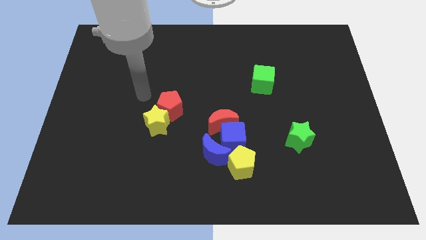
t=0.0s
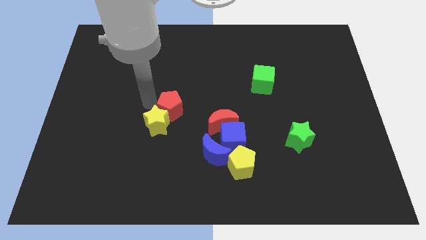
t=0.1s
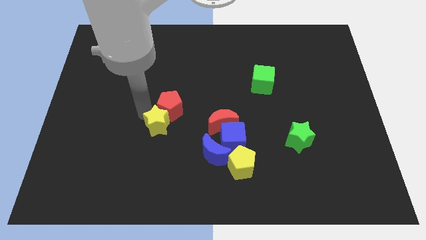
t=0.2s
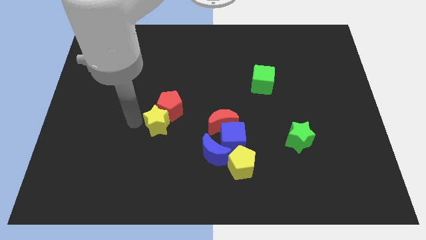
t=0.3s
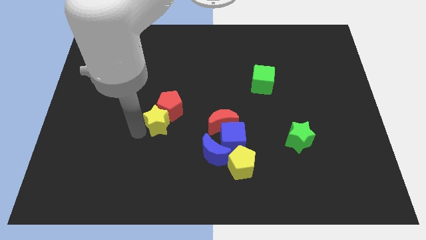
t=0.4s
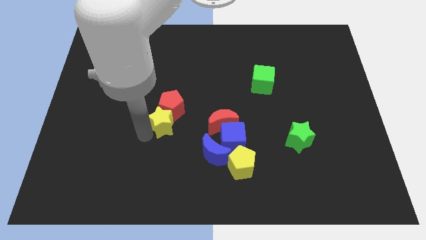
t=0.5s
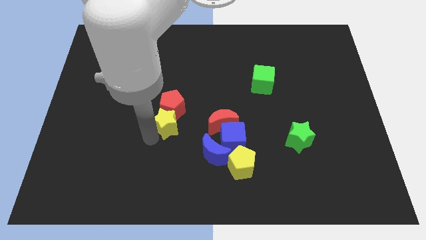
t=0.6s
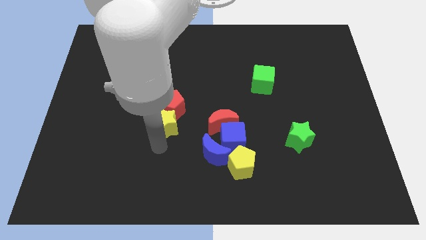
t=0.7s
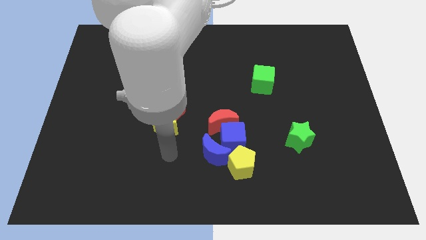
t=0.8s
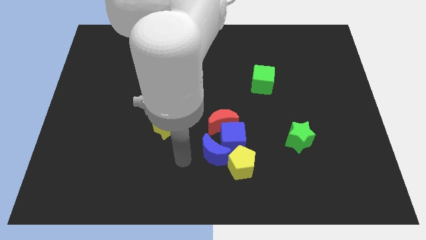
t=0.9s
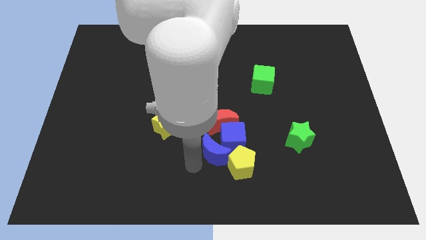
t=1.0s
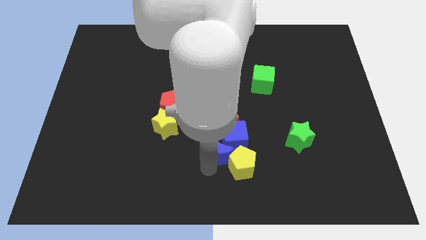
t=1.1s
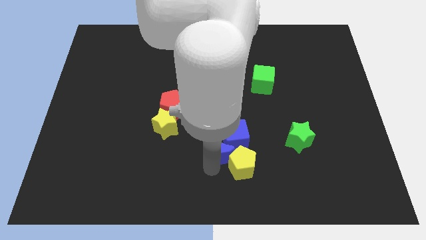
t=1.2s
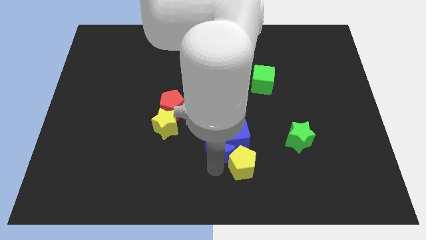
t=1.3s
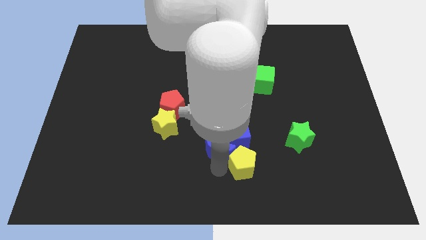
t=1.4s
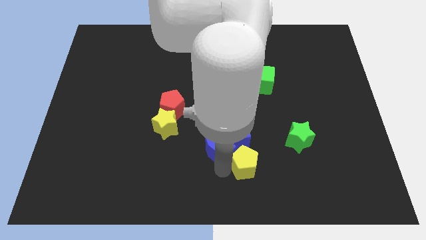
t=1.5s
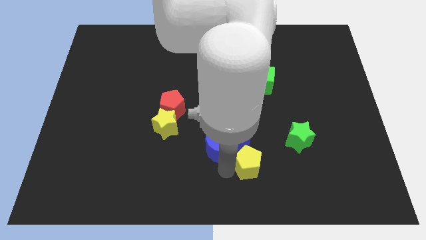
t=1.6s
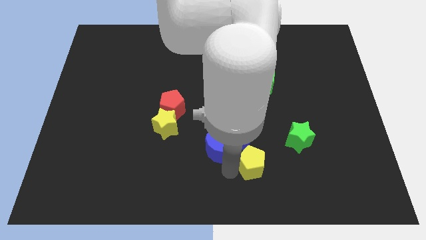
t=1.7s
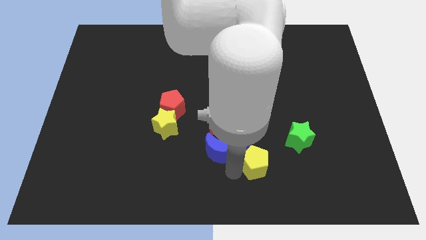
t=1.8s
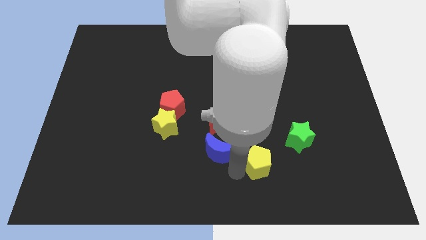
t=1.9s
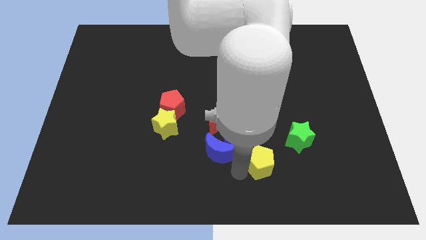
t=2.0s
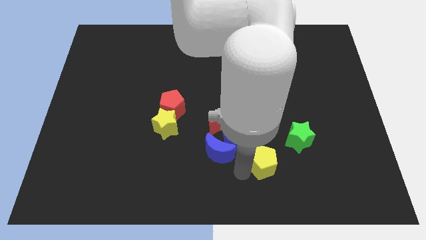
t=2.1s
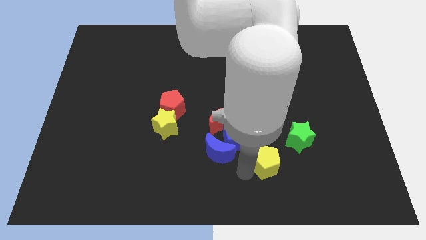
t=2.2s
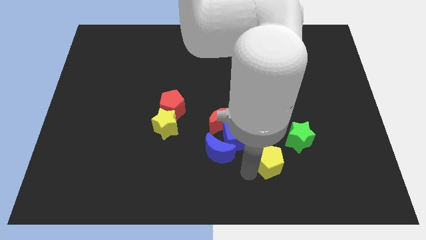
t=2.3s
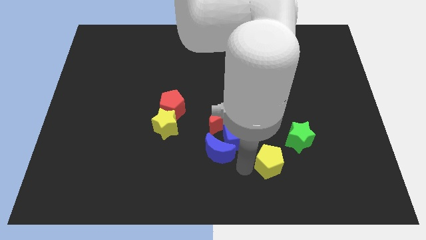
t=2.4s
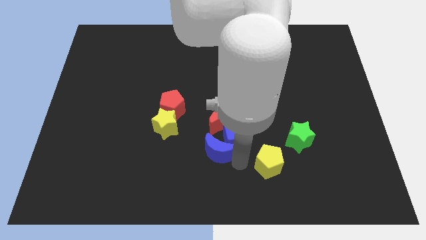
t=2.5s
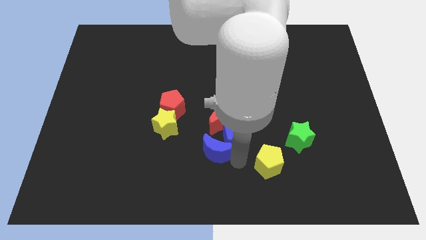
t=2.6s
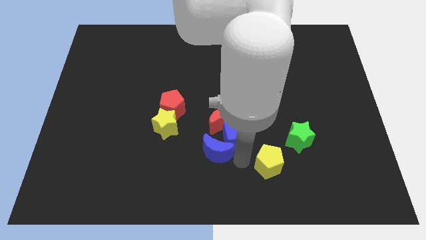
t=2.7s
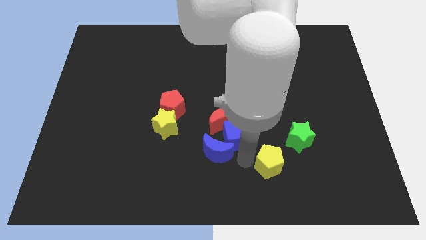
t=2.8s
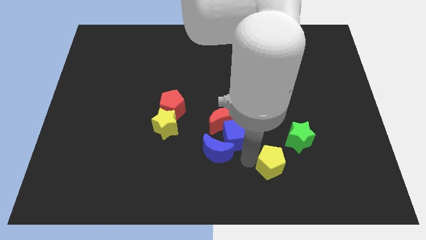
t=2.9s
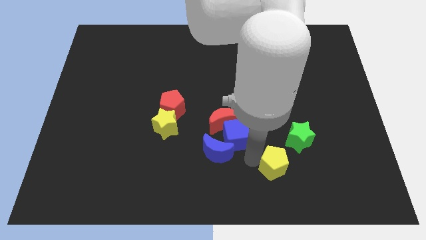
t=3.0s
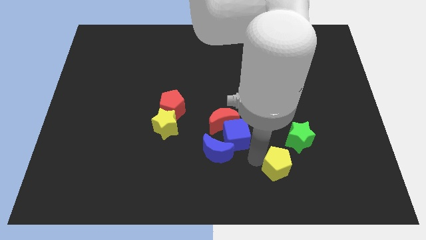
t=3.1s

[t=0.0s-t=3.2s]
move the yellow pentagon to the right somewhat

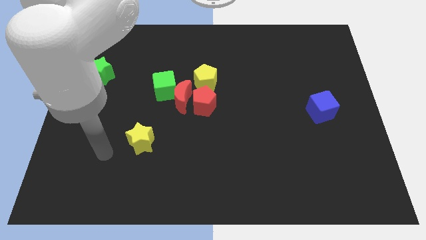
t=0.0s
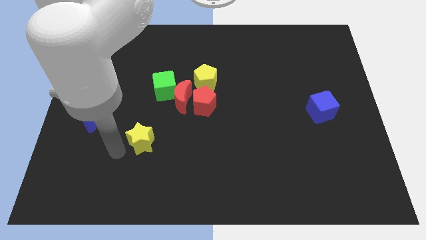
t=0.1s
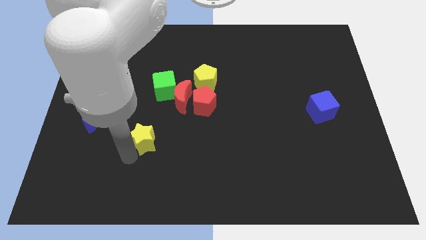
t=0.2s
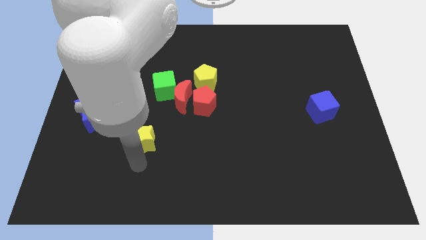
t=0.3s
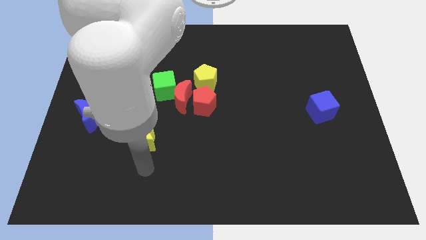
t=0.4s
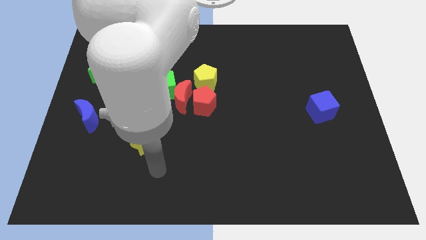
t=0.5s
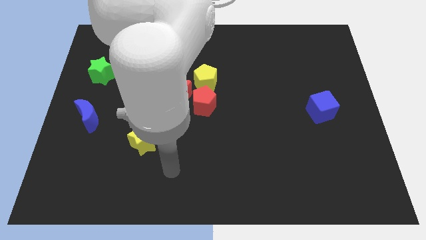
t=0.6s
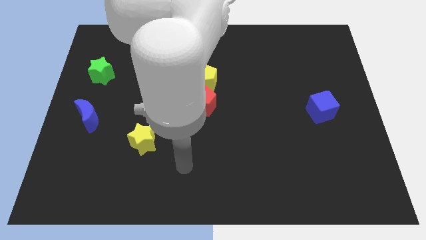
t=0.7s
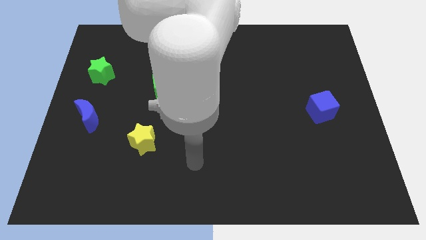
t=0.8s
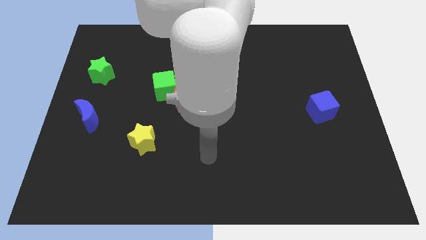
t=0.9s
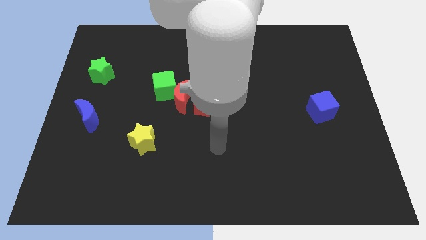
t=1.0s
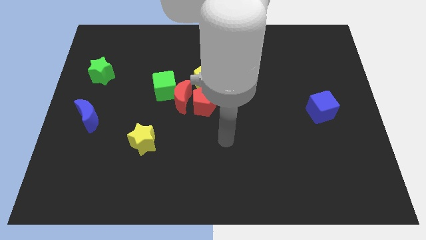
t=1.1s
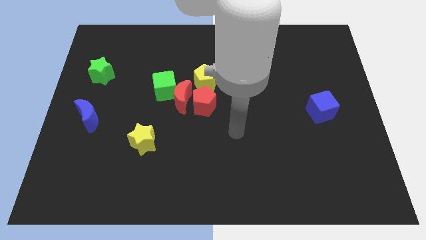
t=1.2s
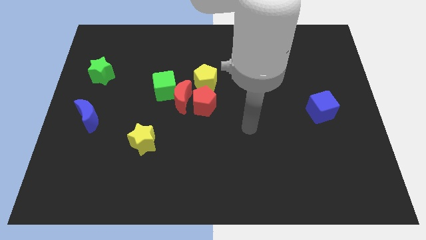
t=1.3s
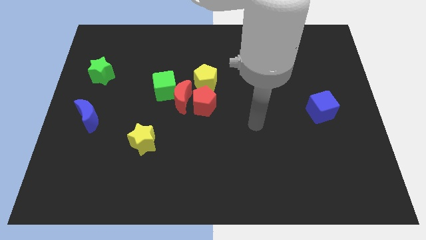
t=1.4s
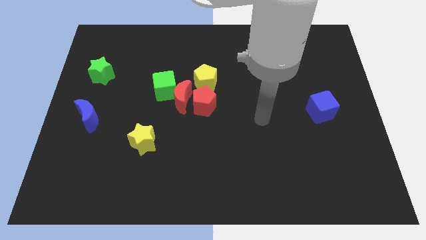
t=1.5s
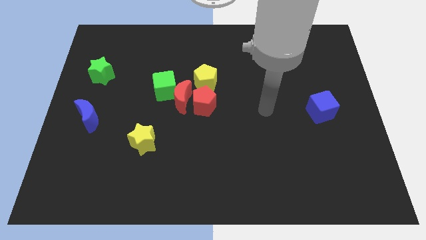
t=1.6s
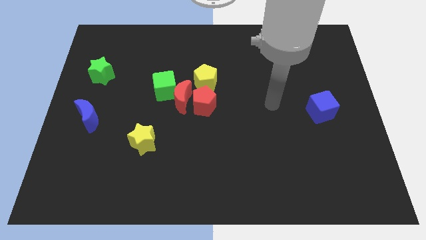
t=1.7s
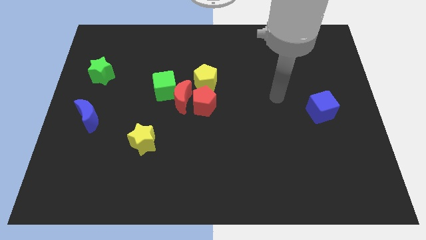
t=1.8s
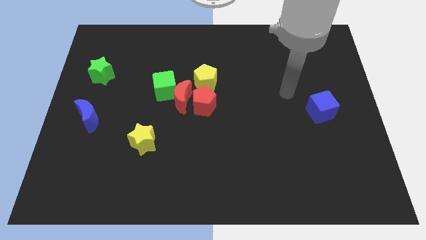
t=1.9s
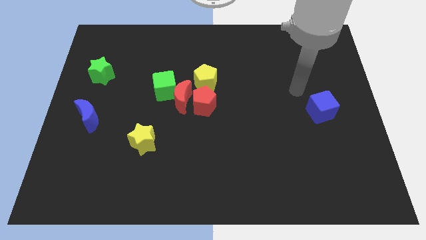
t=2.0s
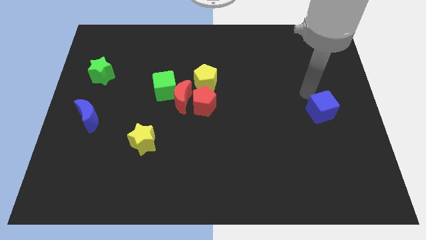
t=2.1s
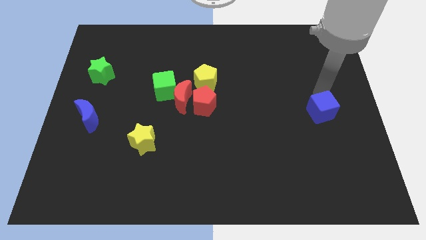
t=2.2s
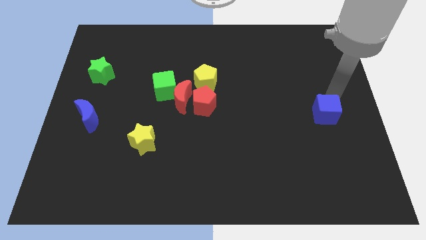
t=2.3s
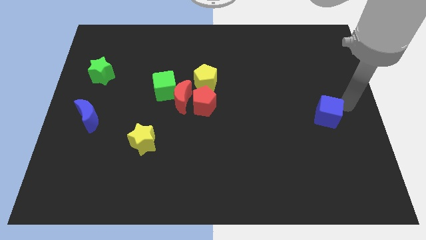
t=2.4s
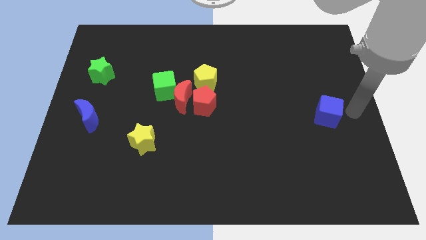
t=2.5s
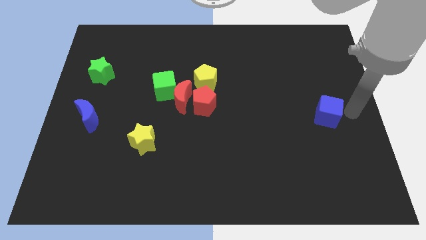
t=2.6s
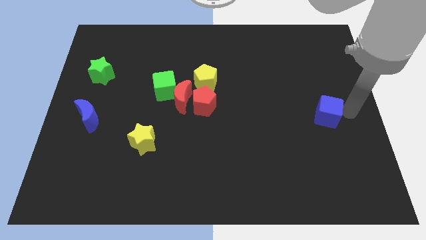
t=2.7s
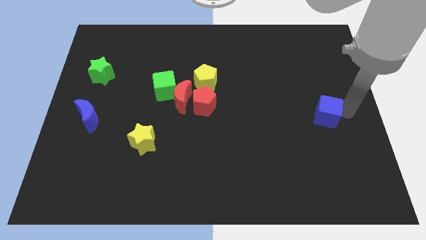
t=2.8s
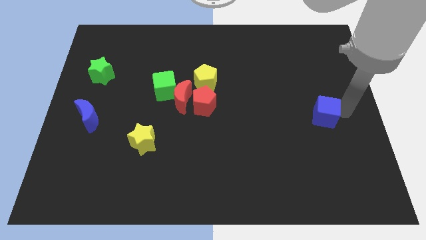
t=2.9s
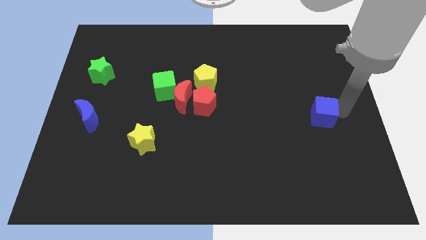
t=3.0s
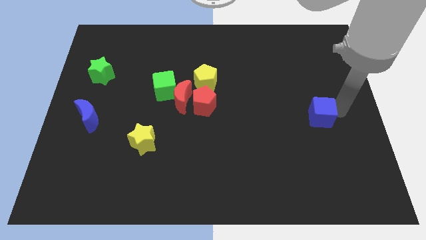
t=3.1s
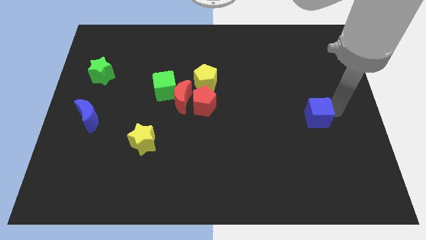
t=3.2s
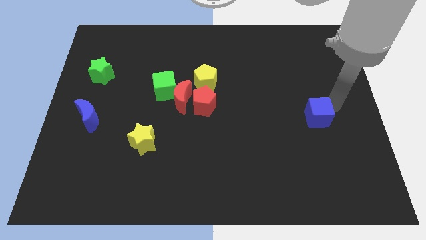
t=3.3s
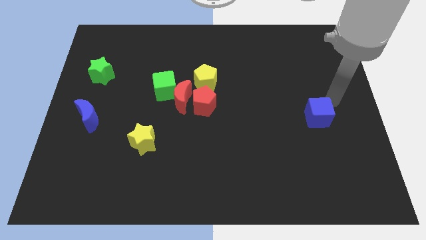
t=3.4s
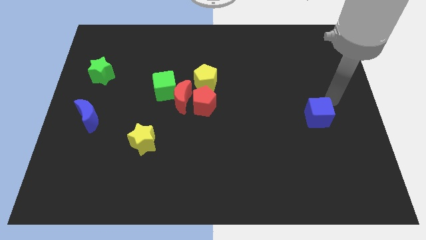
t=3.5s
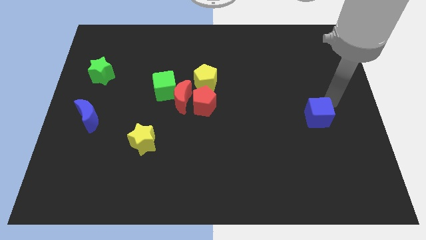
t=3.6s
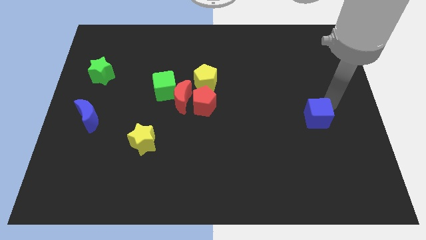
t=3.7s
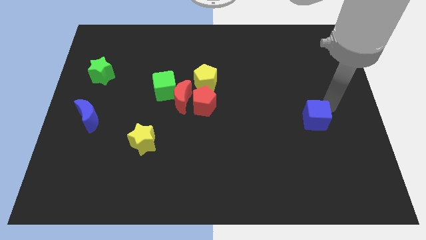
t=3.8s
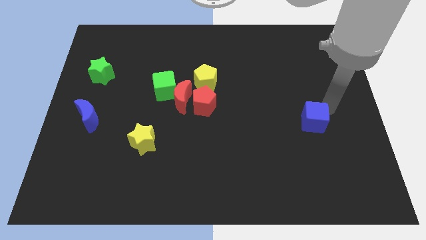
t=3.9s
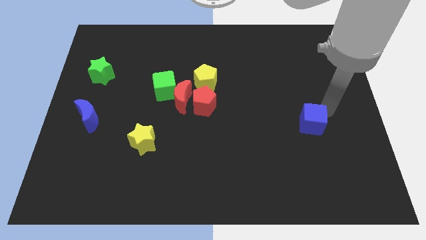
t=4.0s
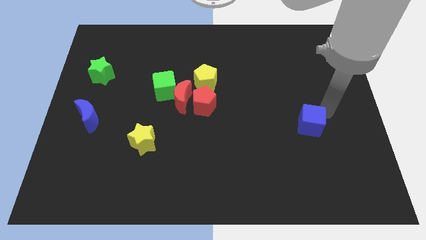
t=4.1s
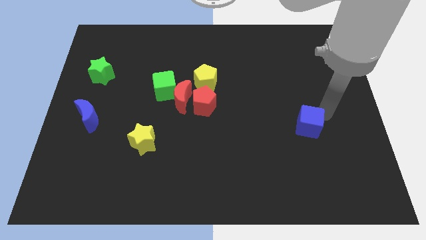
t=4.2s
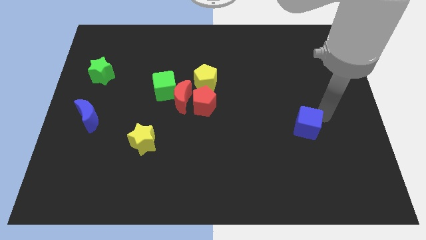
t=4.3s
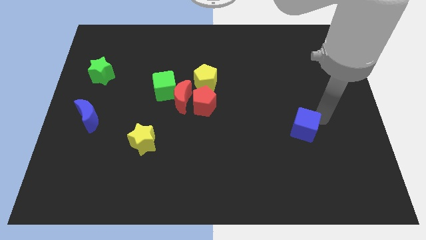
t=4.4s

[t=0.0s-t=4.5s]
slide the blue cube a little bit diagonally downwards and to the left
